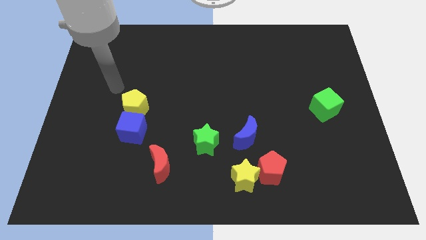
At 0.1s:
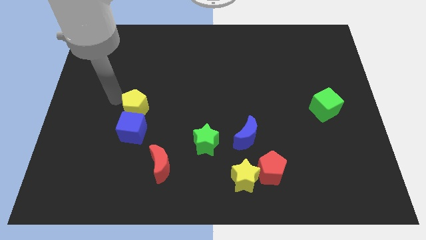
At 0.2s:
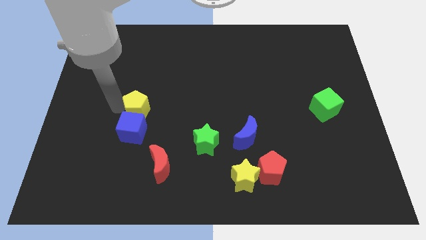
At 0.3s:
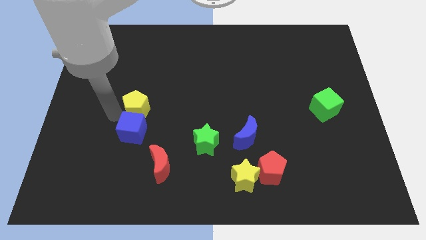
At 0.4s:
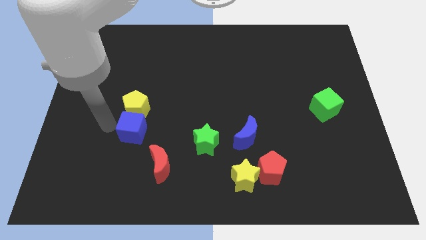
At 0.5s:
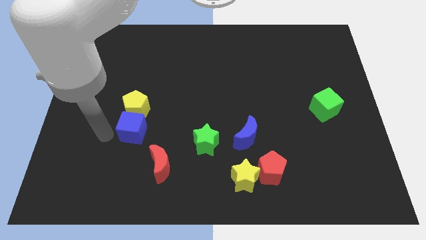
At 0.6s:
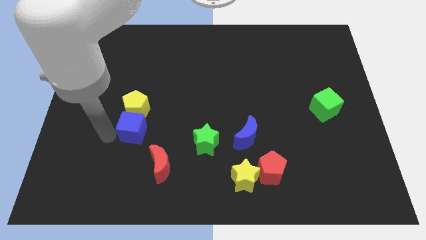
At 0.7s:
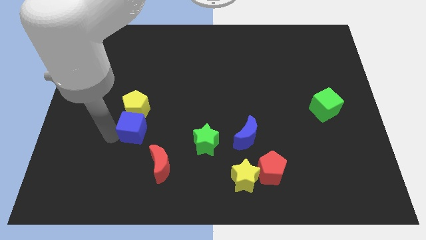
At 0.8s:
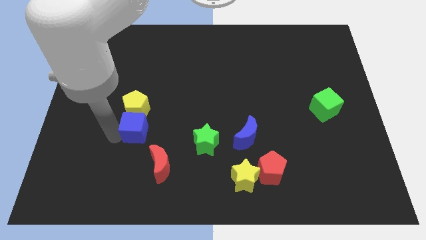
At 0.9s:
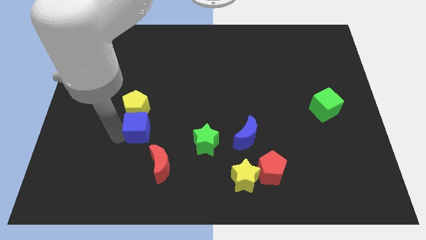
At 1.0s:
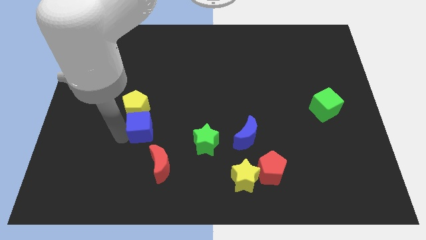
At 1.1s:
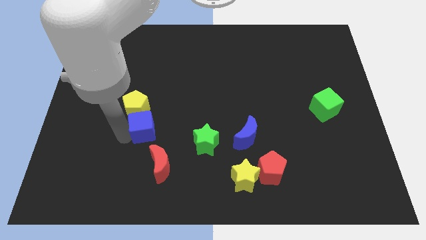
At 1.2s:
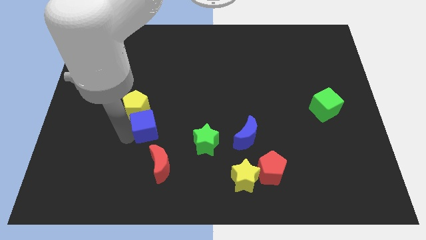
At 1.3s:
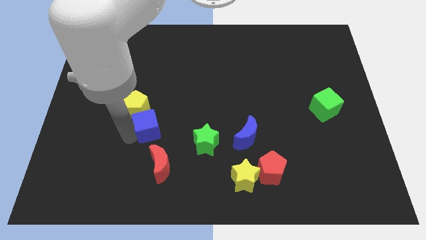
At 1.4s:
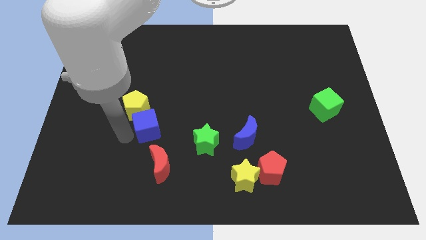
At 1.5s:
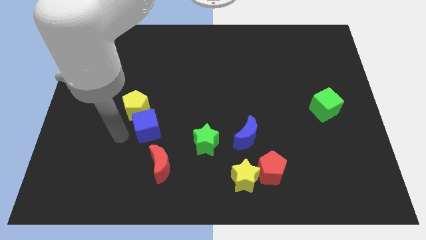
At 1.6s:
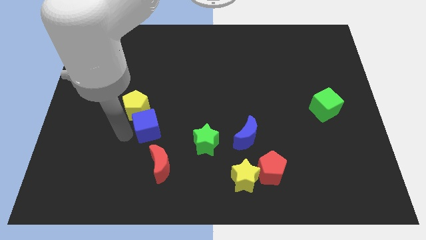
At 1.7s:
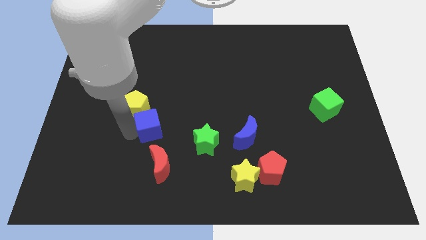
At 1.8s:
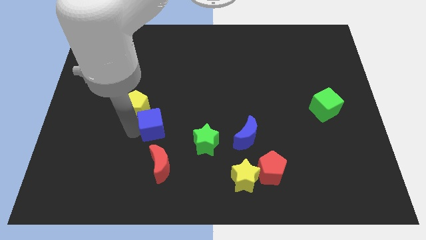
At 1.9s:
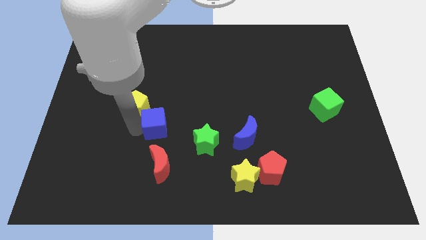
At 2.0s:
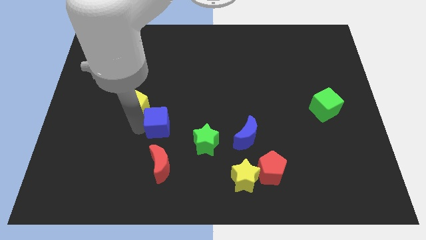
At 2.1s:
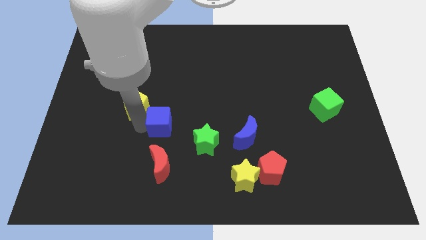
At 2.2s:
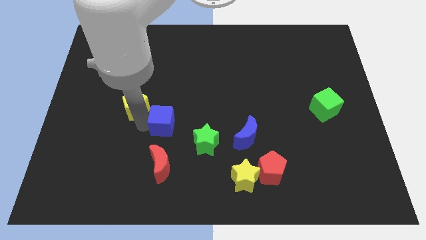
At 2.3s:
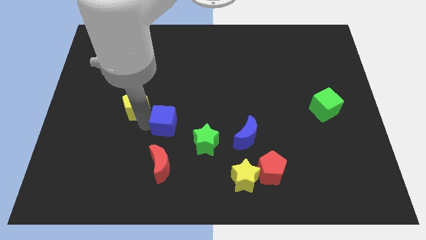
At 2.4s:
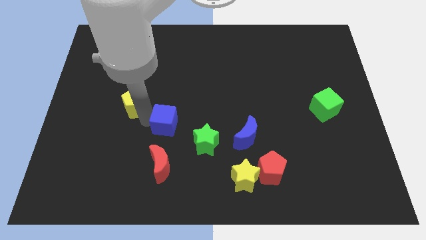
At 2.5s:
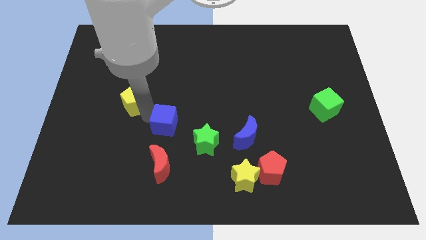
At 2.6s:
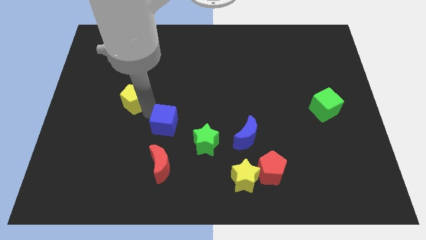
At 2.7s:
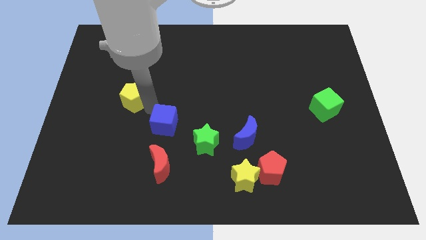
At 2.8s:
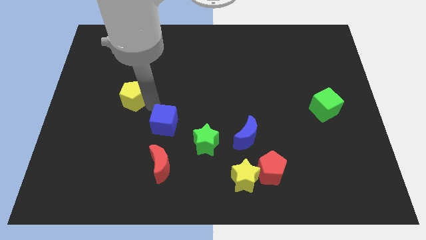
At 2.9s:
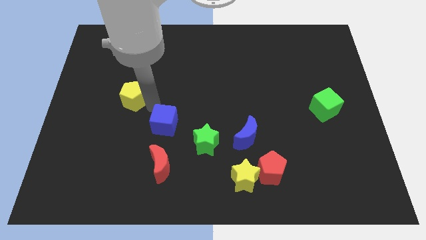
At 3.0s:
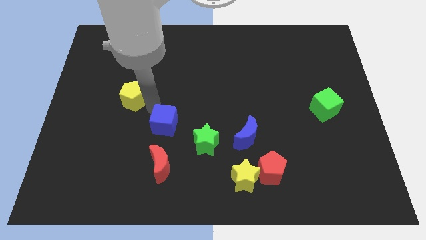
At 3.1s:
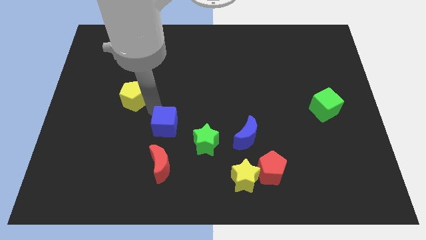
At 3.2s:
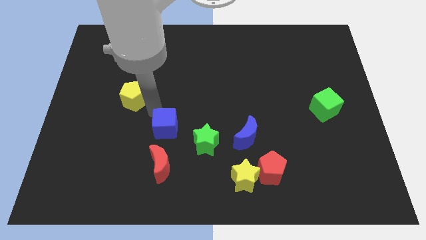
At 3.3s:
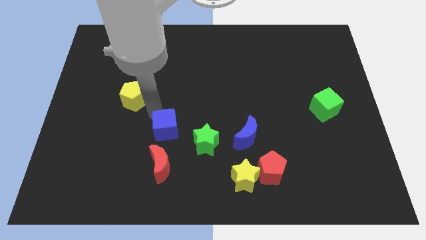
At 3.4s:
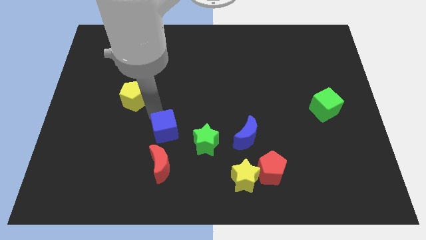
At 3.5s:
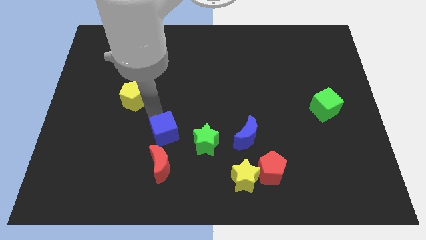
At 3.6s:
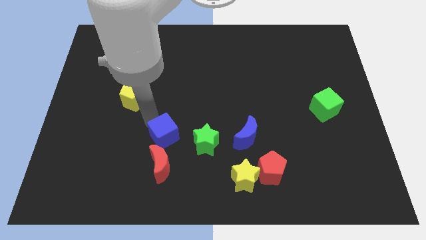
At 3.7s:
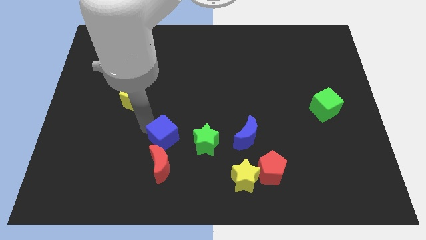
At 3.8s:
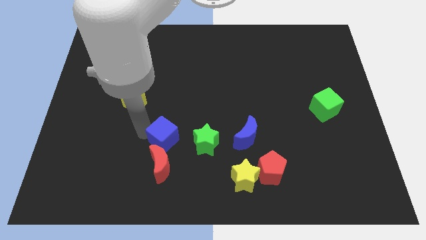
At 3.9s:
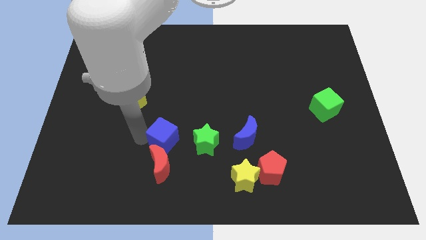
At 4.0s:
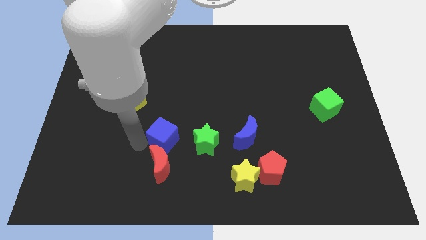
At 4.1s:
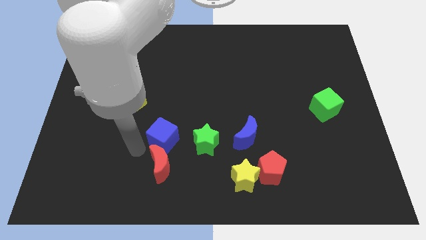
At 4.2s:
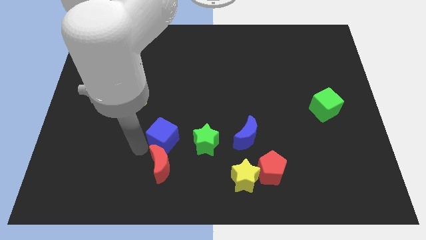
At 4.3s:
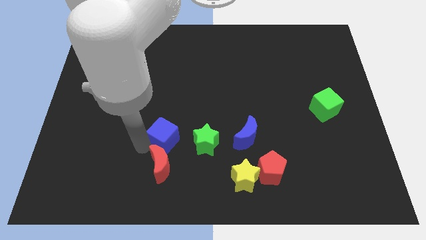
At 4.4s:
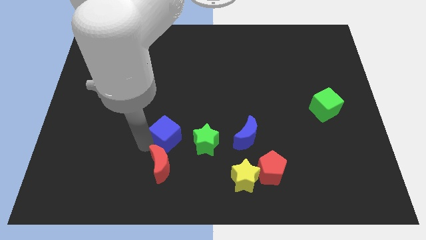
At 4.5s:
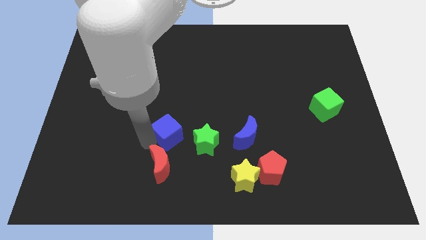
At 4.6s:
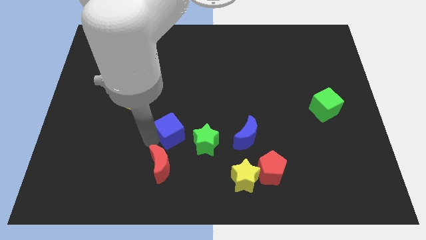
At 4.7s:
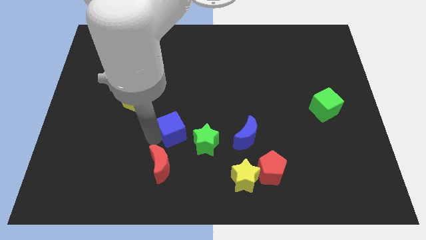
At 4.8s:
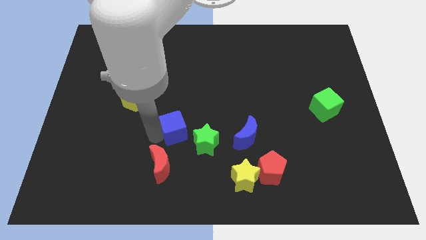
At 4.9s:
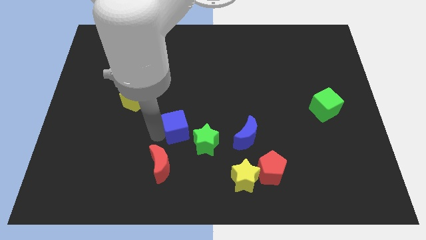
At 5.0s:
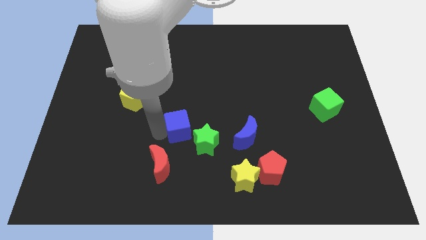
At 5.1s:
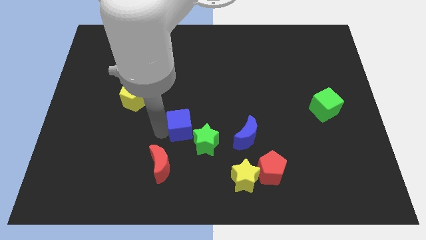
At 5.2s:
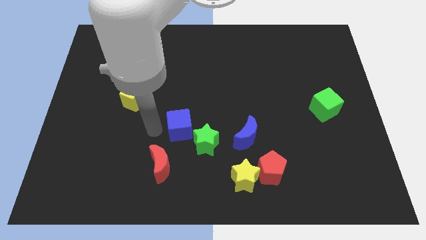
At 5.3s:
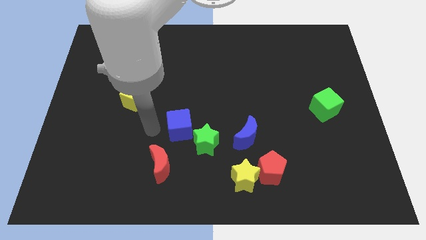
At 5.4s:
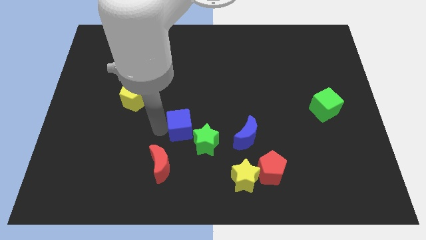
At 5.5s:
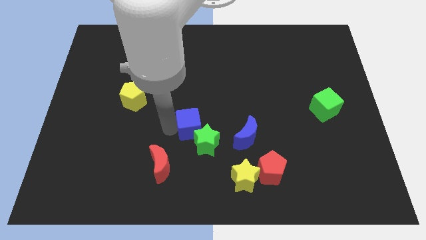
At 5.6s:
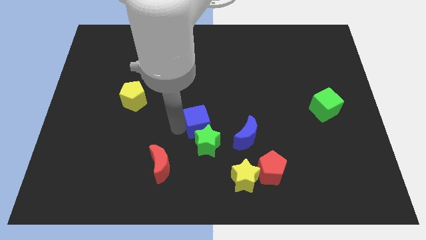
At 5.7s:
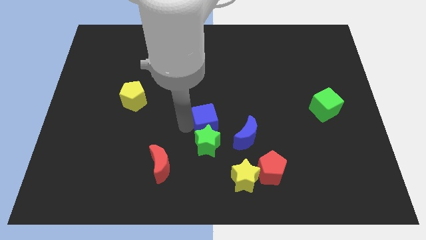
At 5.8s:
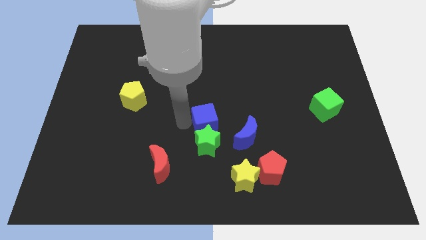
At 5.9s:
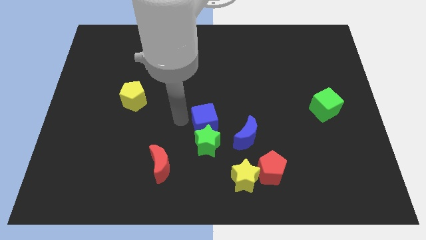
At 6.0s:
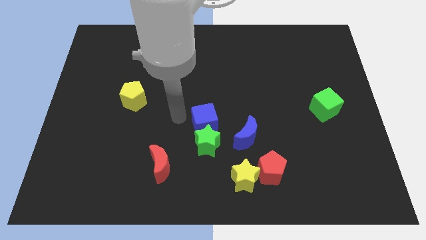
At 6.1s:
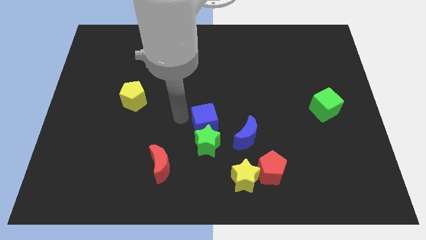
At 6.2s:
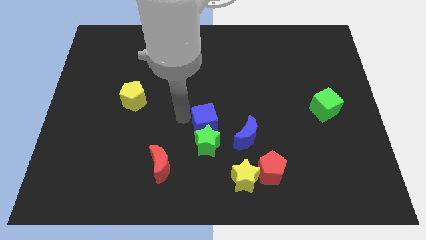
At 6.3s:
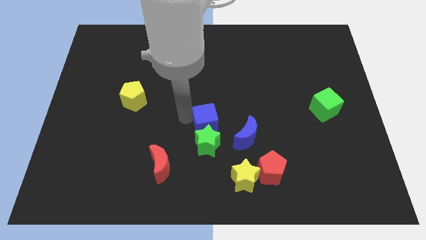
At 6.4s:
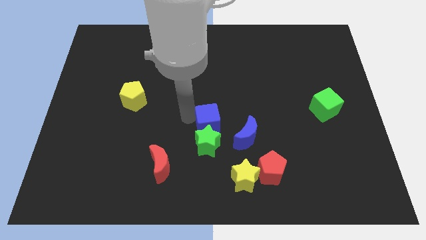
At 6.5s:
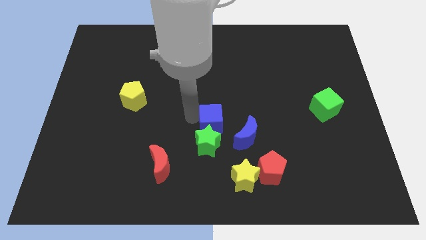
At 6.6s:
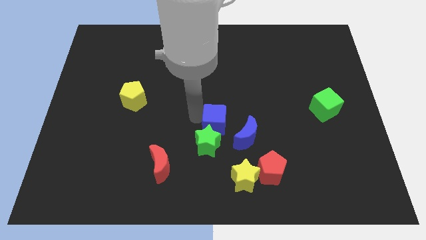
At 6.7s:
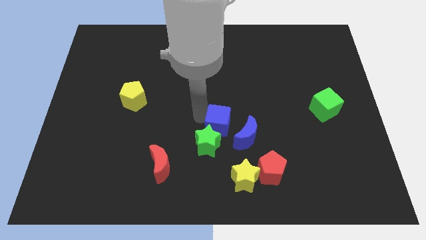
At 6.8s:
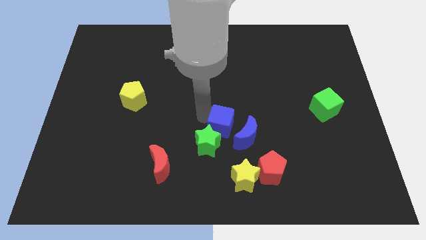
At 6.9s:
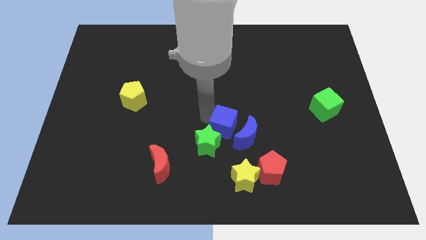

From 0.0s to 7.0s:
slide the blue cube close to the blue moon
